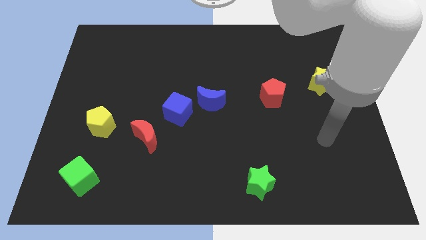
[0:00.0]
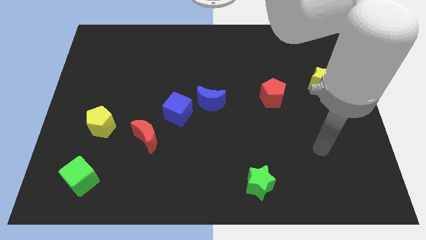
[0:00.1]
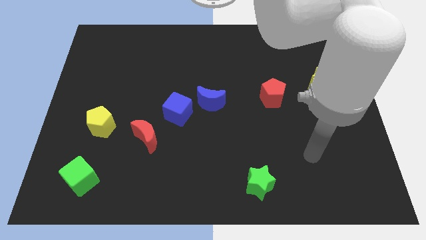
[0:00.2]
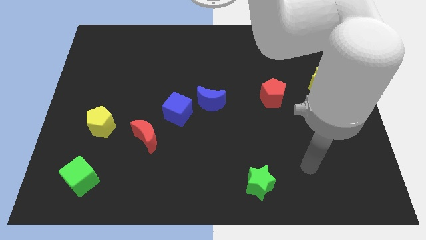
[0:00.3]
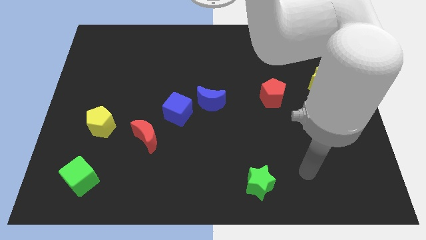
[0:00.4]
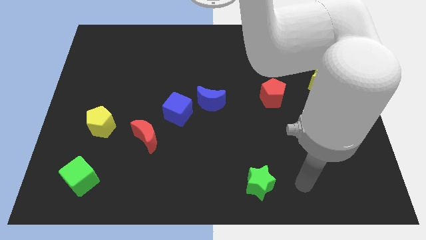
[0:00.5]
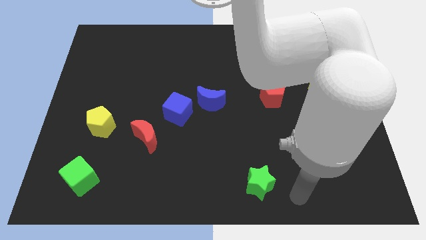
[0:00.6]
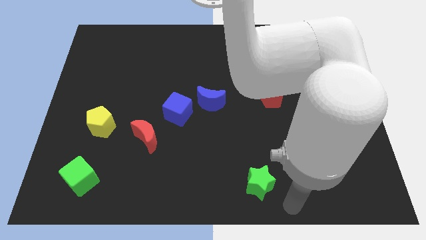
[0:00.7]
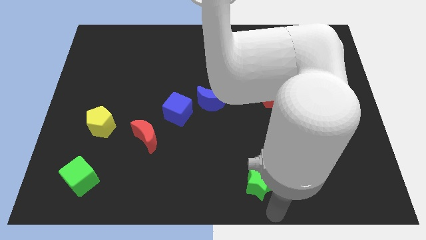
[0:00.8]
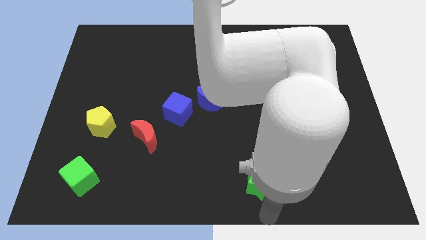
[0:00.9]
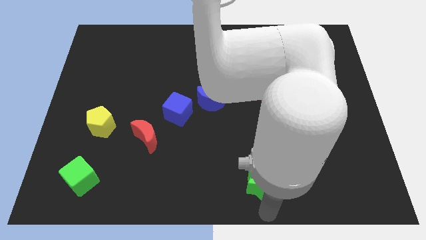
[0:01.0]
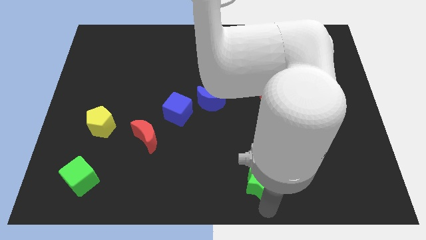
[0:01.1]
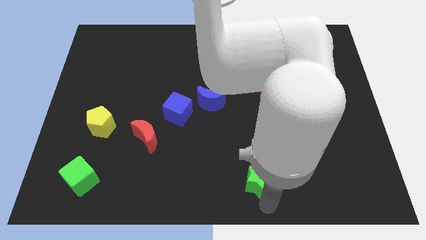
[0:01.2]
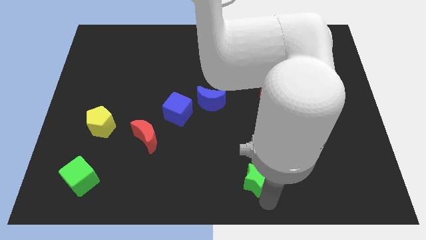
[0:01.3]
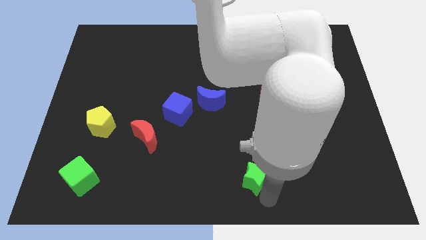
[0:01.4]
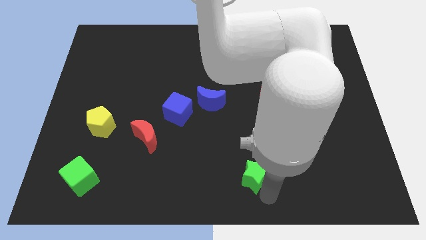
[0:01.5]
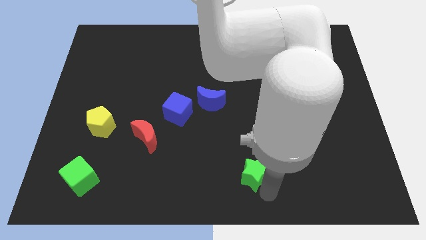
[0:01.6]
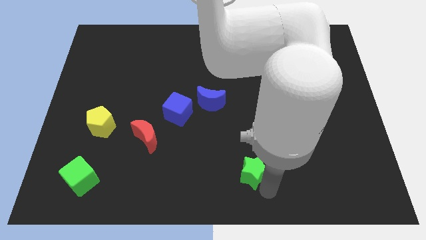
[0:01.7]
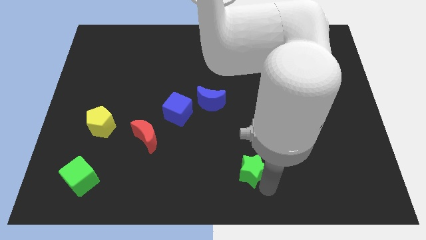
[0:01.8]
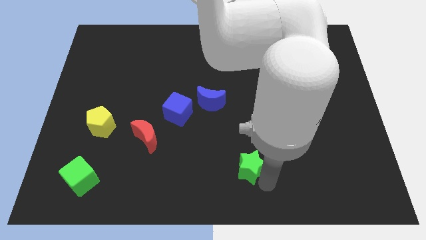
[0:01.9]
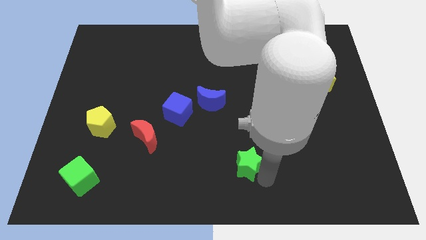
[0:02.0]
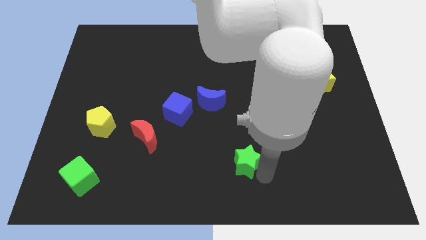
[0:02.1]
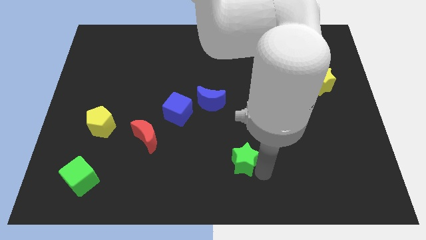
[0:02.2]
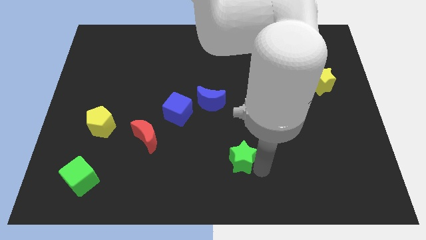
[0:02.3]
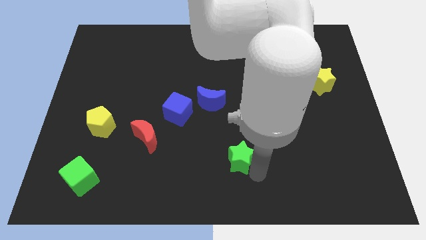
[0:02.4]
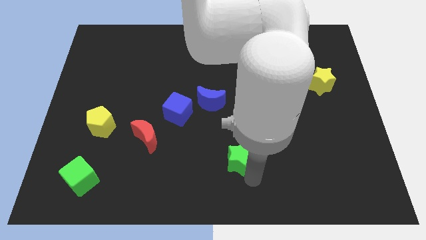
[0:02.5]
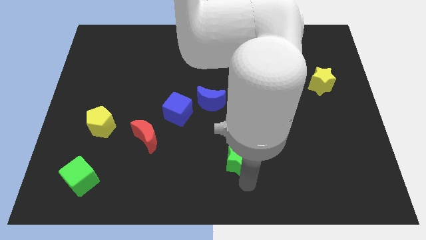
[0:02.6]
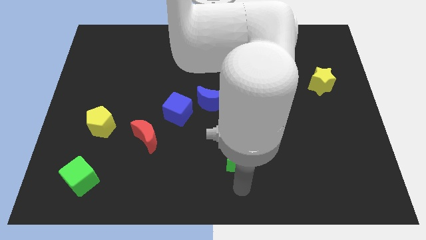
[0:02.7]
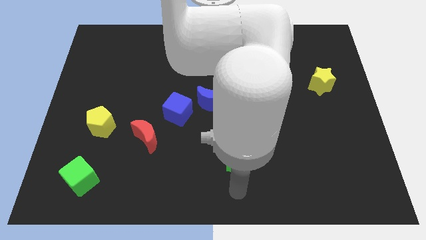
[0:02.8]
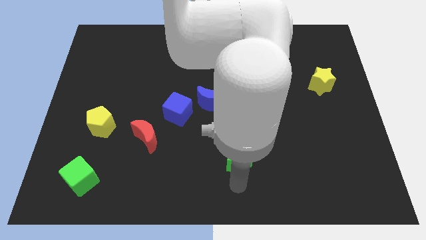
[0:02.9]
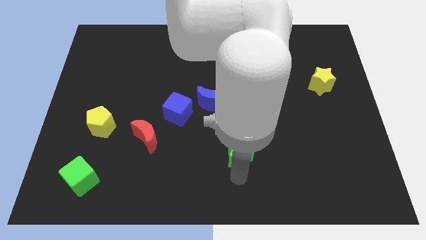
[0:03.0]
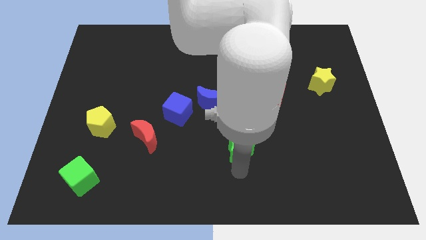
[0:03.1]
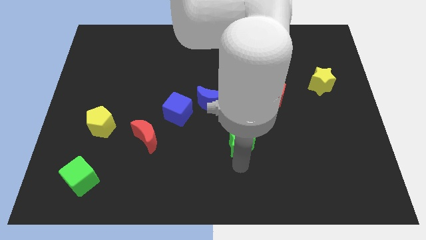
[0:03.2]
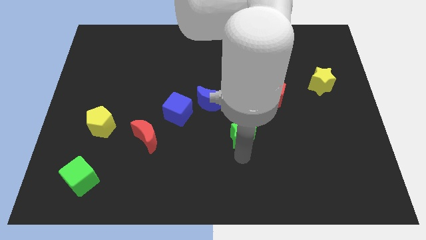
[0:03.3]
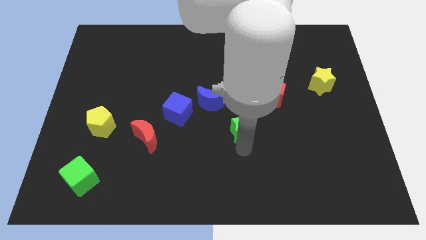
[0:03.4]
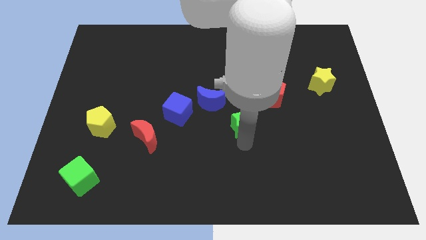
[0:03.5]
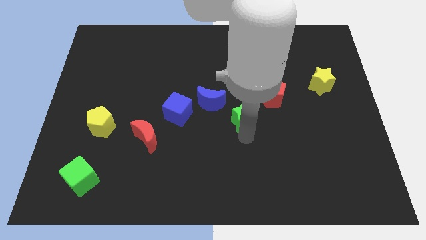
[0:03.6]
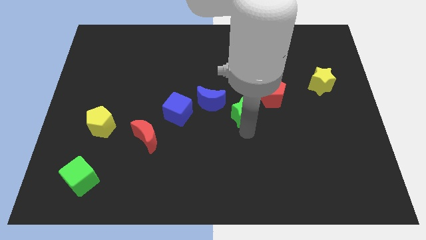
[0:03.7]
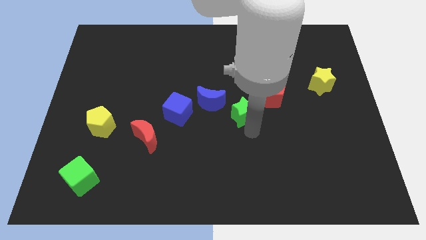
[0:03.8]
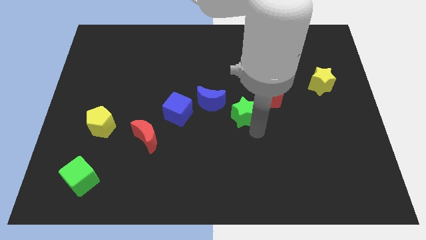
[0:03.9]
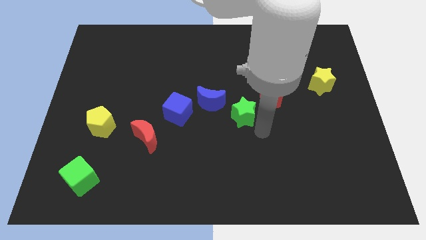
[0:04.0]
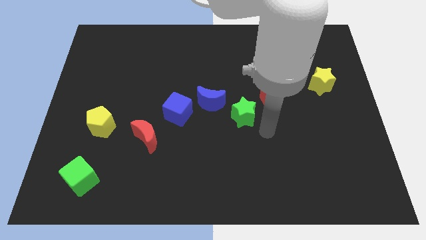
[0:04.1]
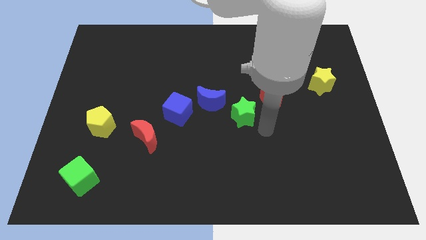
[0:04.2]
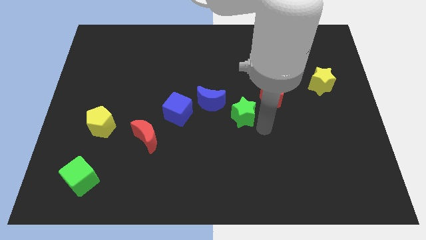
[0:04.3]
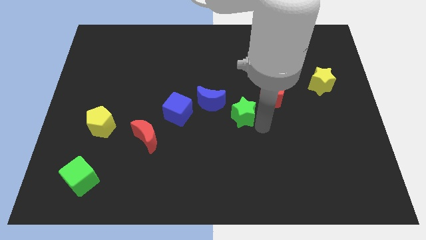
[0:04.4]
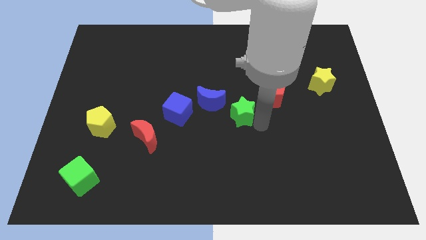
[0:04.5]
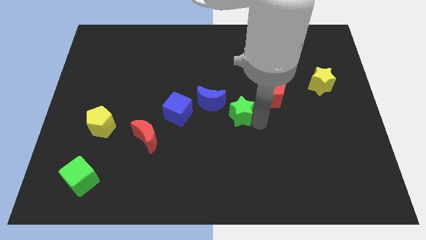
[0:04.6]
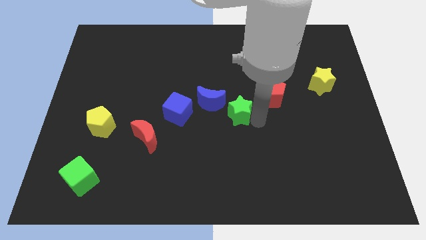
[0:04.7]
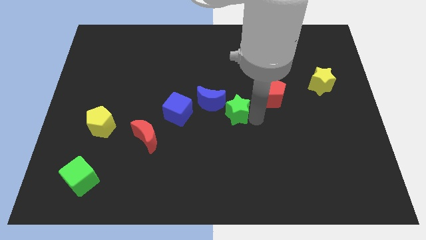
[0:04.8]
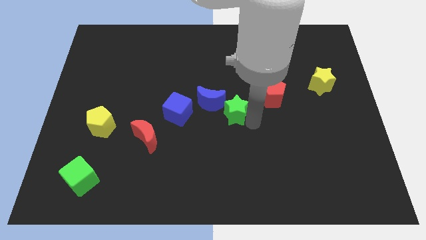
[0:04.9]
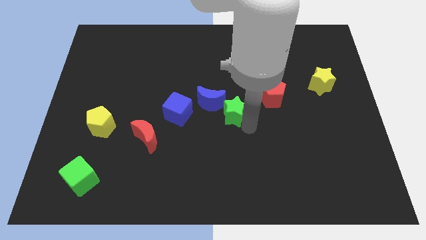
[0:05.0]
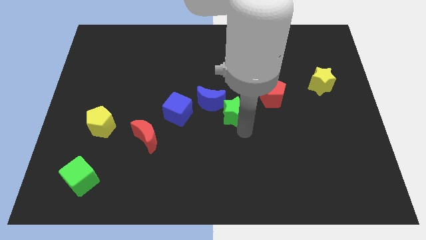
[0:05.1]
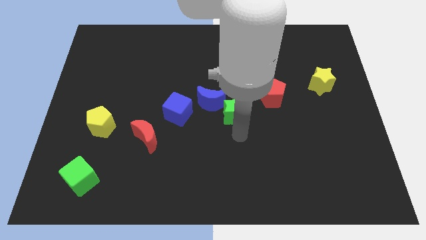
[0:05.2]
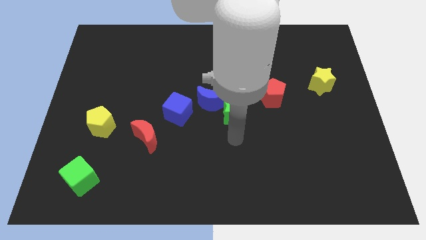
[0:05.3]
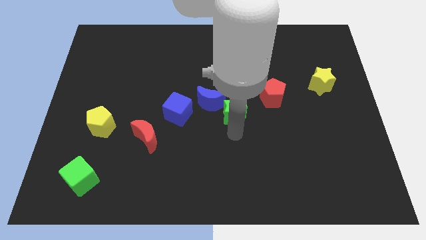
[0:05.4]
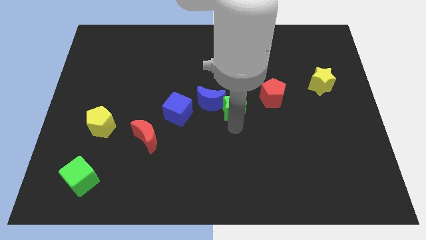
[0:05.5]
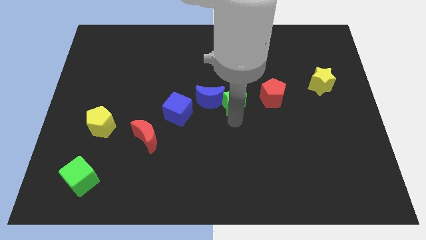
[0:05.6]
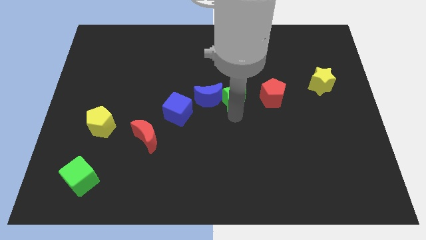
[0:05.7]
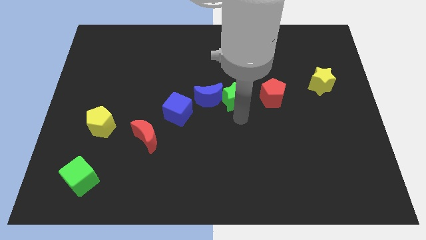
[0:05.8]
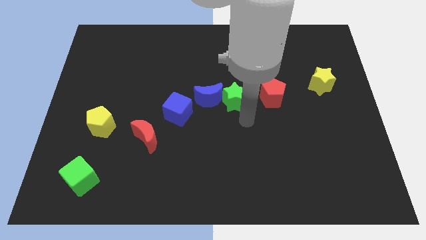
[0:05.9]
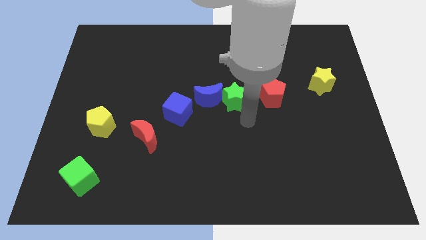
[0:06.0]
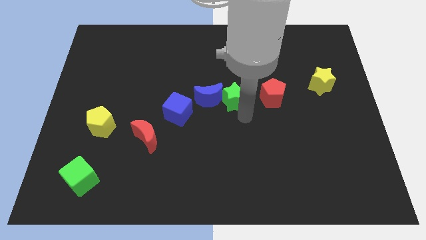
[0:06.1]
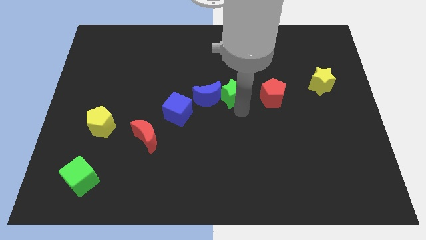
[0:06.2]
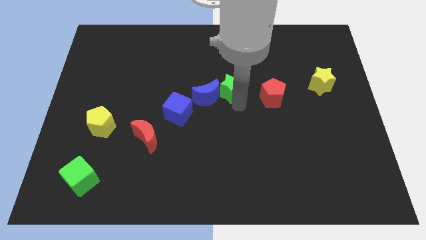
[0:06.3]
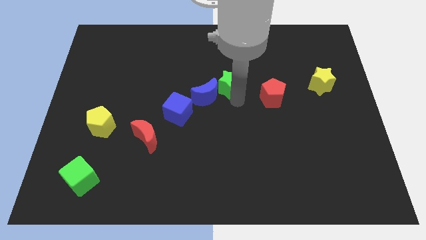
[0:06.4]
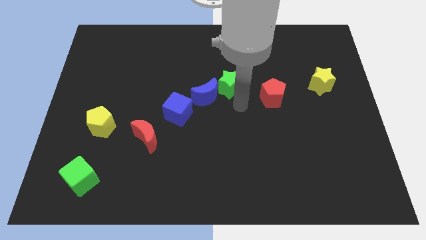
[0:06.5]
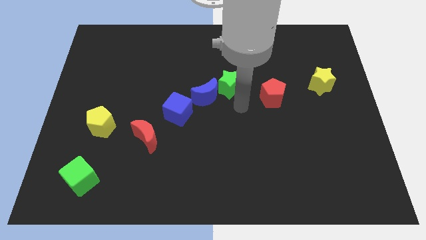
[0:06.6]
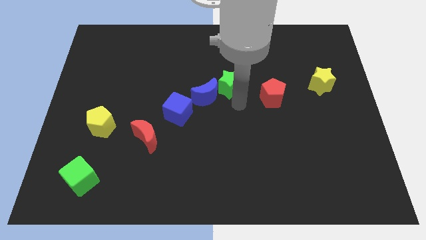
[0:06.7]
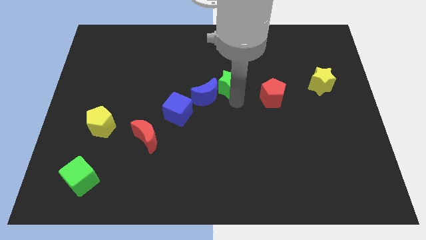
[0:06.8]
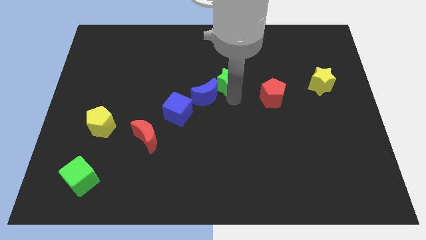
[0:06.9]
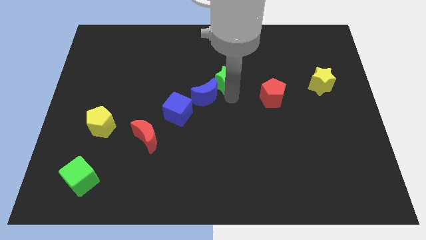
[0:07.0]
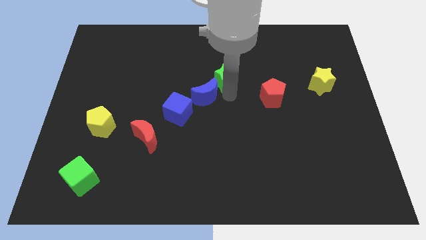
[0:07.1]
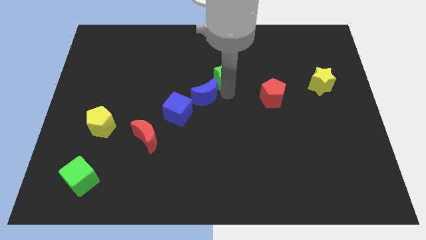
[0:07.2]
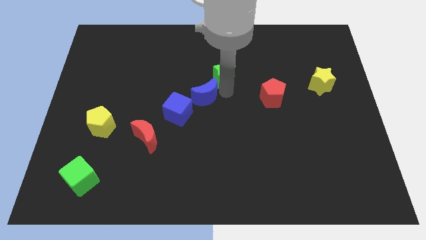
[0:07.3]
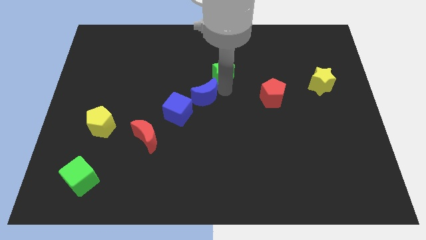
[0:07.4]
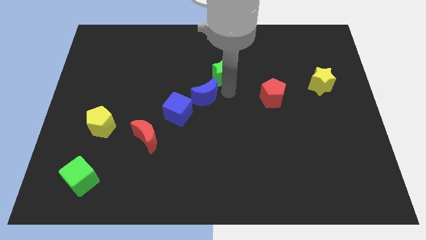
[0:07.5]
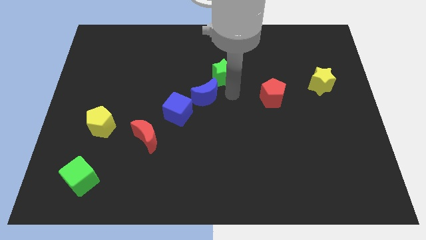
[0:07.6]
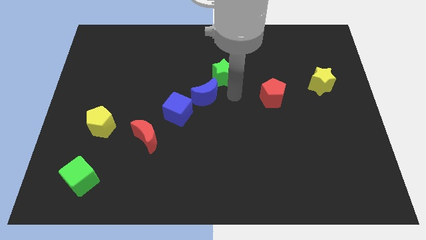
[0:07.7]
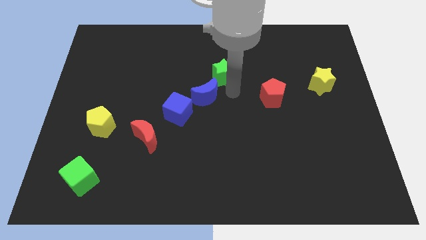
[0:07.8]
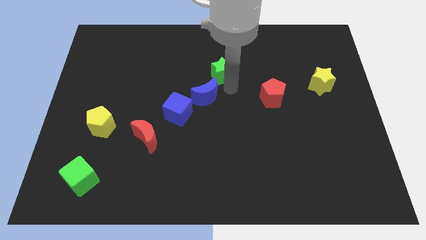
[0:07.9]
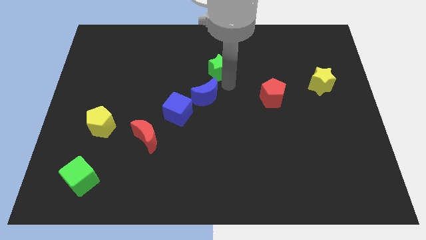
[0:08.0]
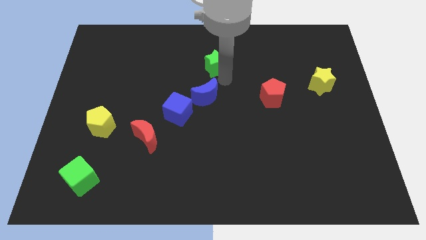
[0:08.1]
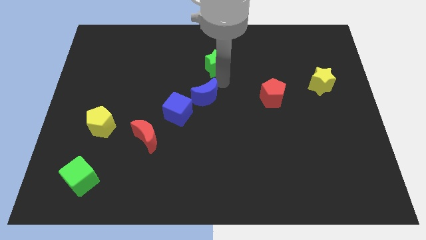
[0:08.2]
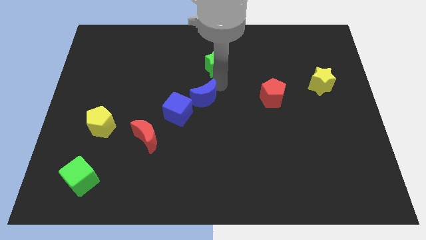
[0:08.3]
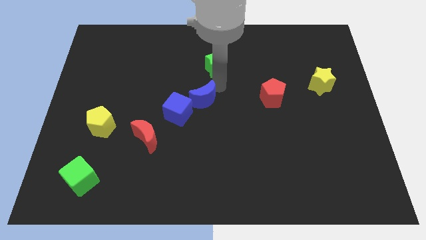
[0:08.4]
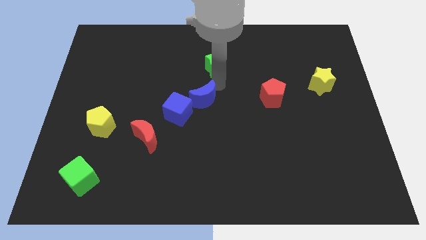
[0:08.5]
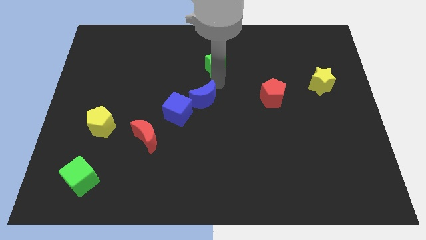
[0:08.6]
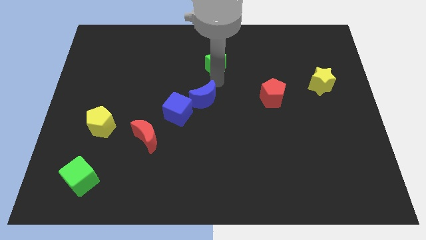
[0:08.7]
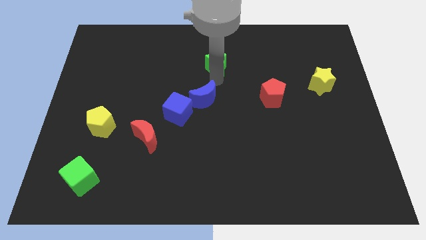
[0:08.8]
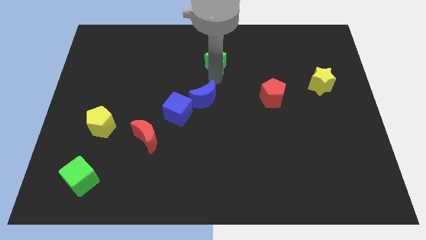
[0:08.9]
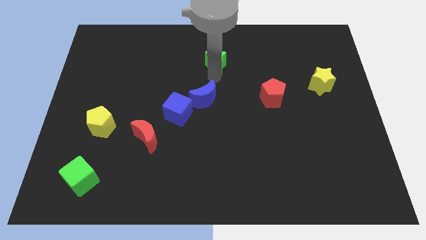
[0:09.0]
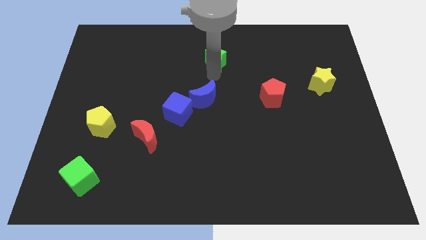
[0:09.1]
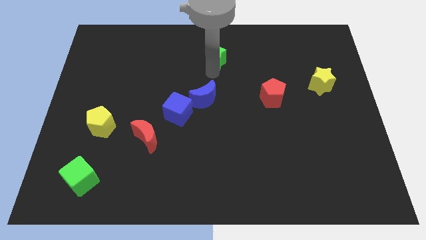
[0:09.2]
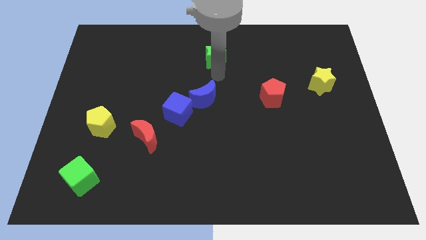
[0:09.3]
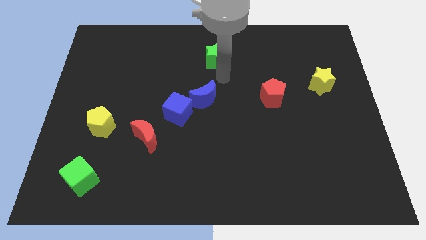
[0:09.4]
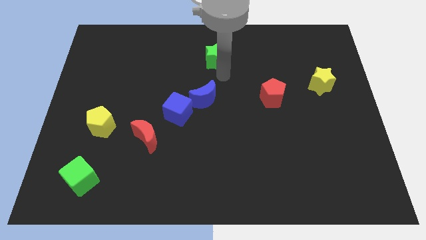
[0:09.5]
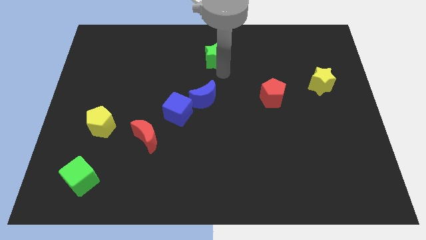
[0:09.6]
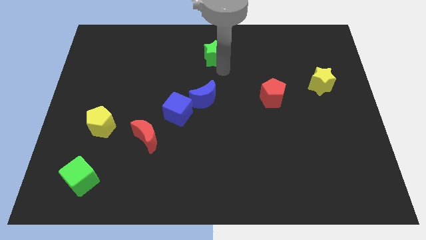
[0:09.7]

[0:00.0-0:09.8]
move the green star to the top
